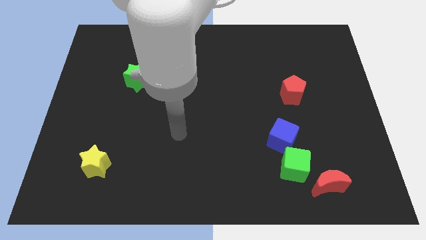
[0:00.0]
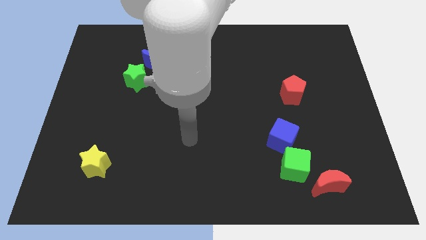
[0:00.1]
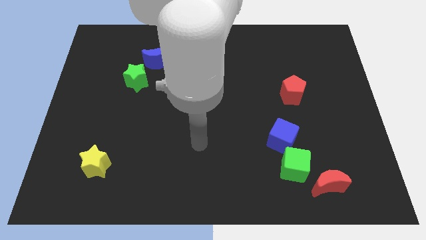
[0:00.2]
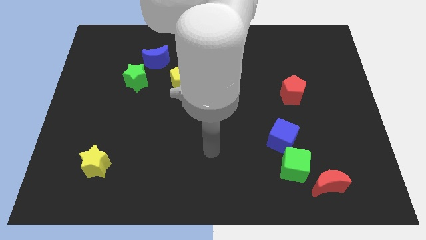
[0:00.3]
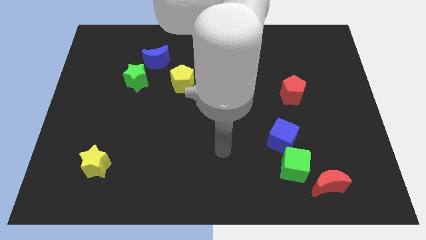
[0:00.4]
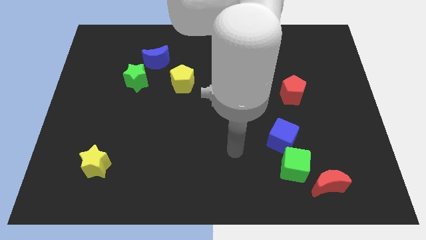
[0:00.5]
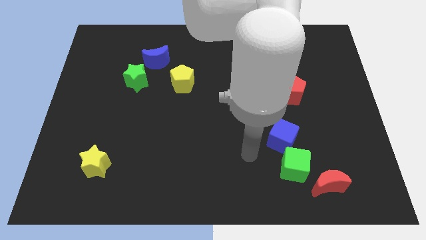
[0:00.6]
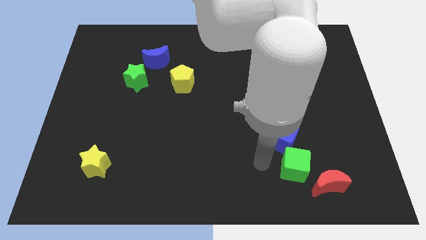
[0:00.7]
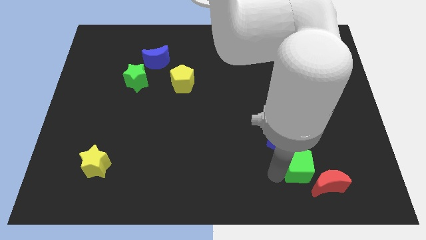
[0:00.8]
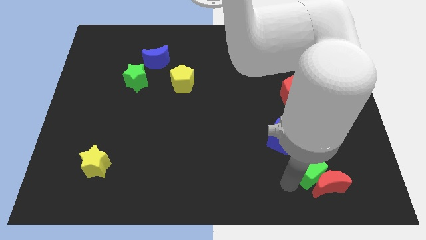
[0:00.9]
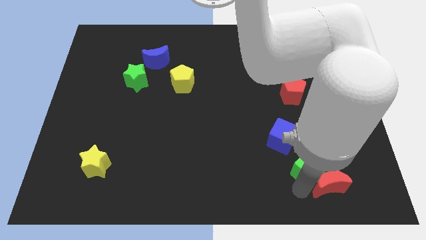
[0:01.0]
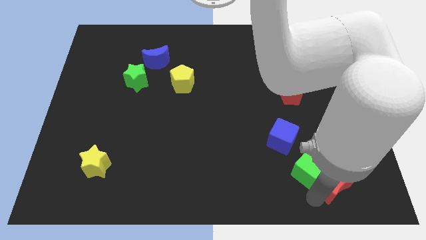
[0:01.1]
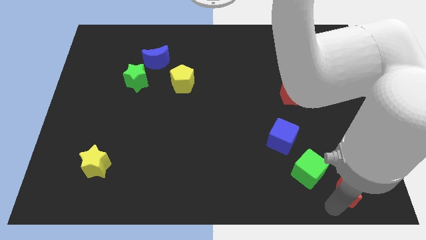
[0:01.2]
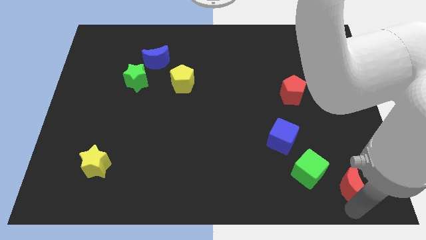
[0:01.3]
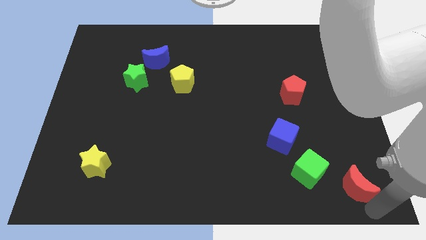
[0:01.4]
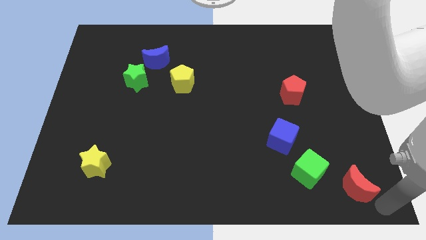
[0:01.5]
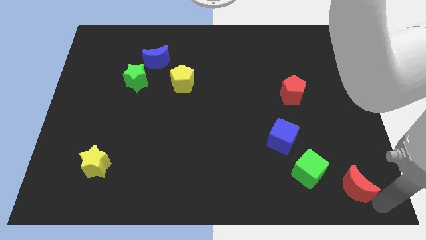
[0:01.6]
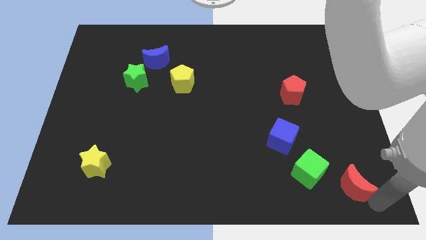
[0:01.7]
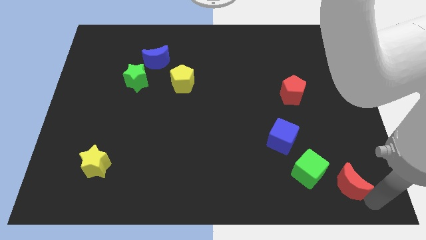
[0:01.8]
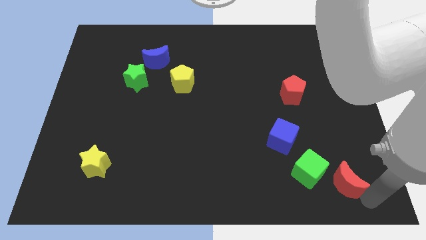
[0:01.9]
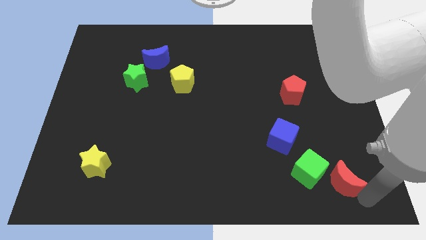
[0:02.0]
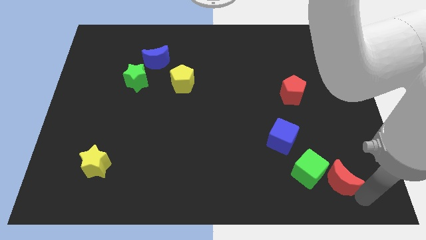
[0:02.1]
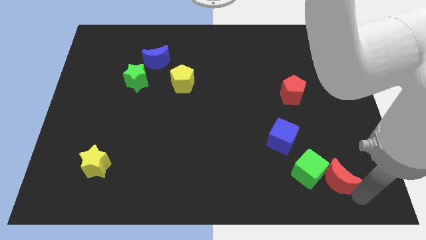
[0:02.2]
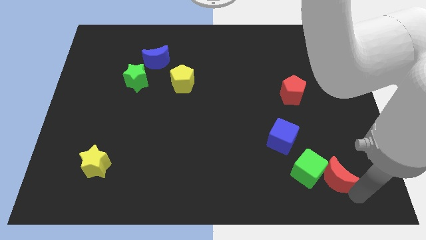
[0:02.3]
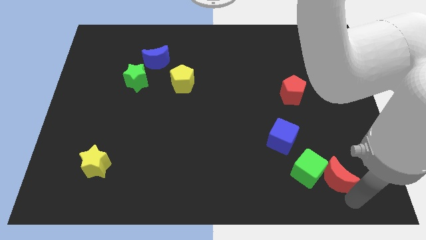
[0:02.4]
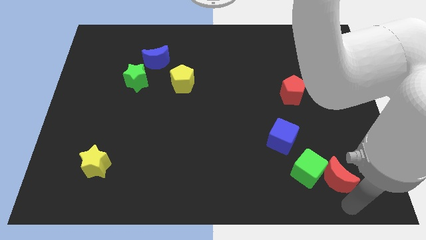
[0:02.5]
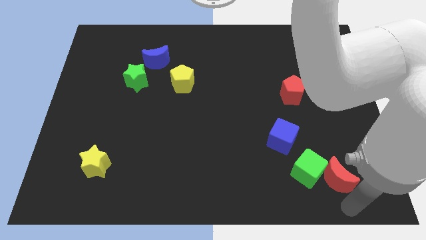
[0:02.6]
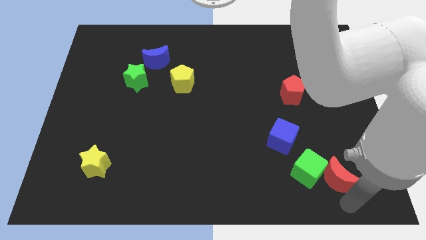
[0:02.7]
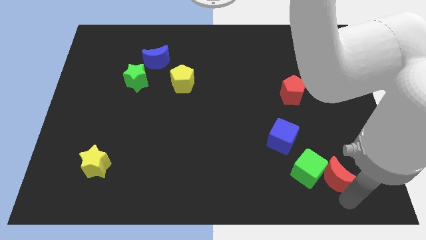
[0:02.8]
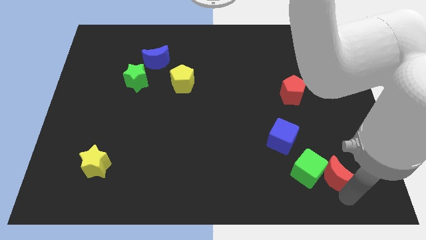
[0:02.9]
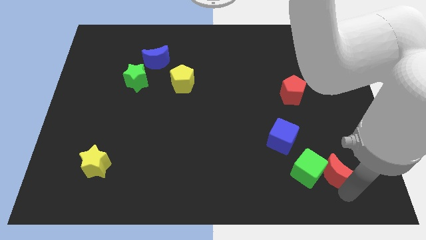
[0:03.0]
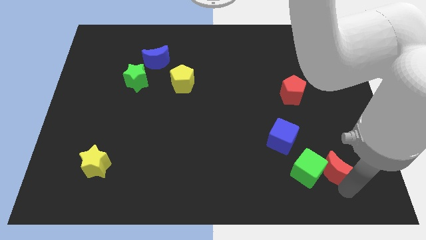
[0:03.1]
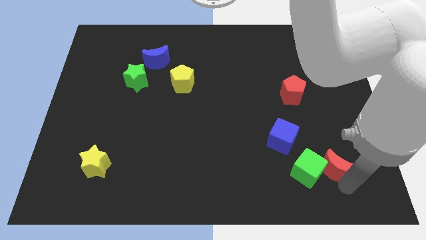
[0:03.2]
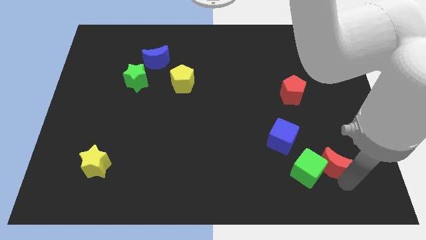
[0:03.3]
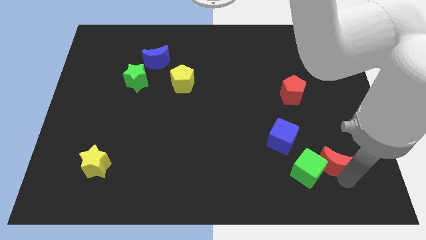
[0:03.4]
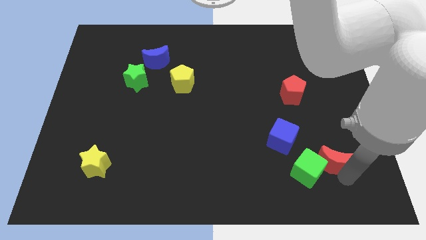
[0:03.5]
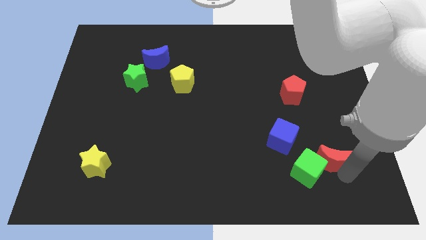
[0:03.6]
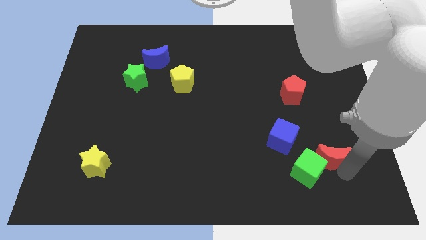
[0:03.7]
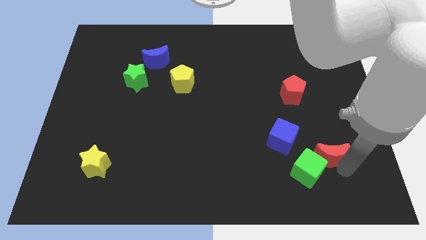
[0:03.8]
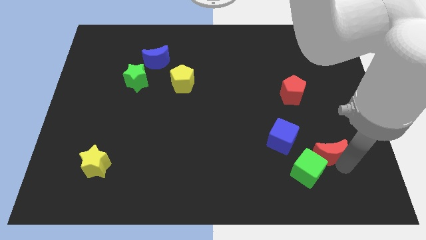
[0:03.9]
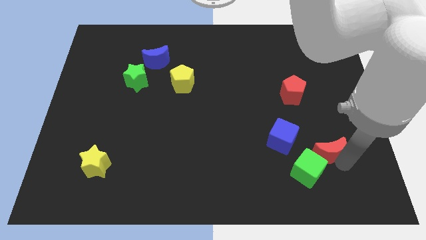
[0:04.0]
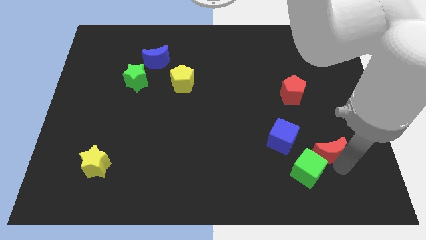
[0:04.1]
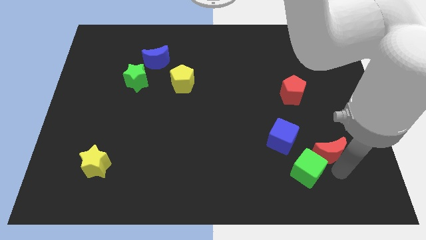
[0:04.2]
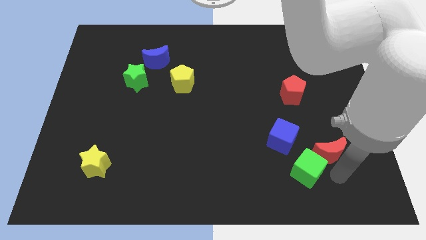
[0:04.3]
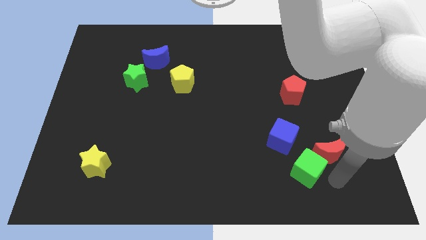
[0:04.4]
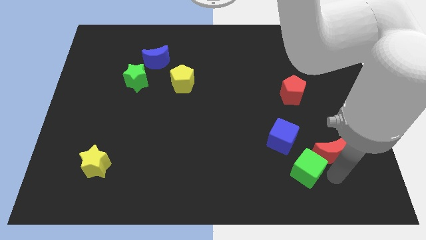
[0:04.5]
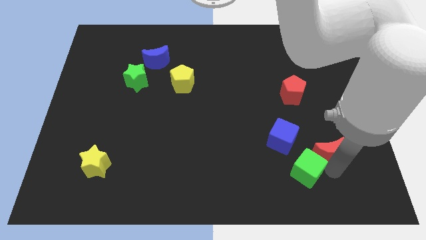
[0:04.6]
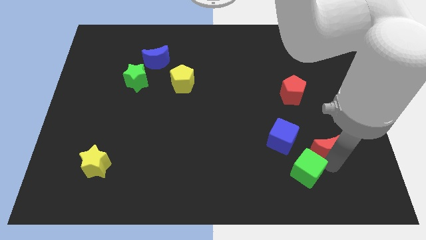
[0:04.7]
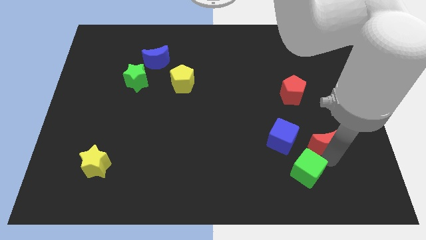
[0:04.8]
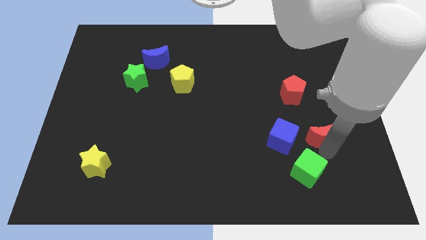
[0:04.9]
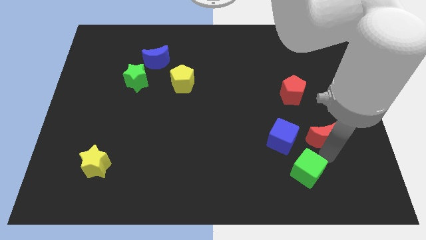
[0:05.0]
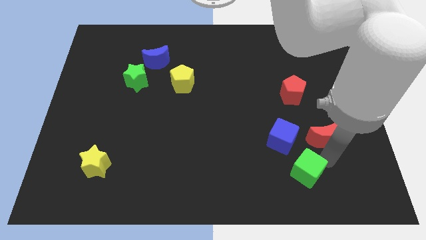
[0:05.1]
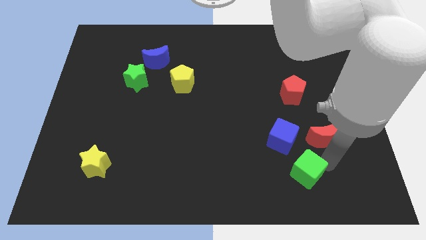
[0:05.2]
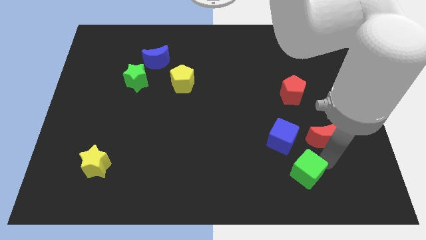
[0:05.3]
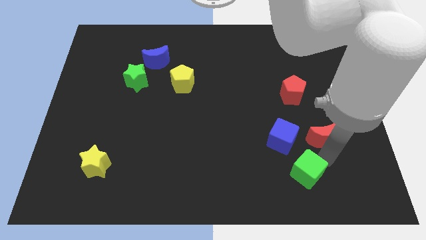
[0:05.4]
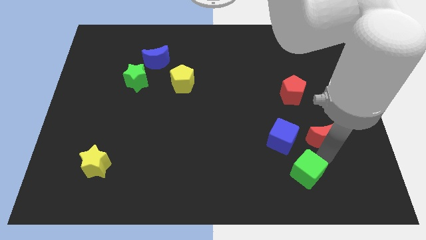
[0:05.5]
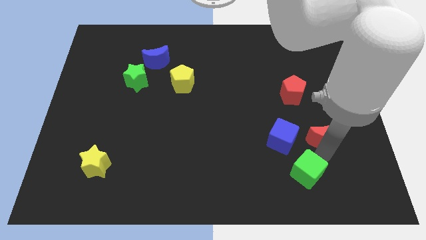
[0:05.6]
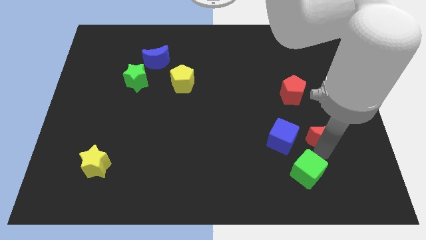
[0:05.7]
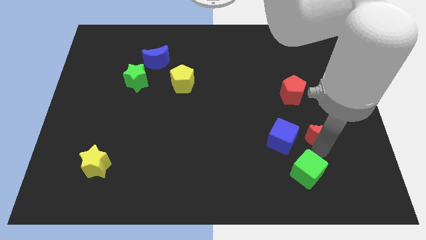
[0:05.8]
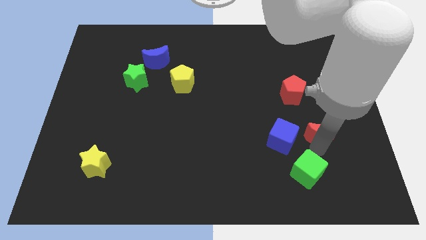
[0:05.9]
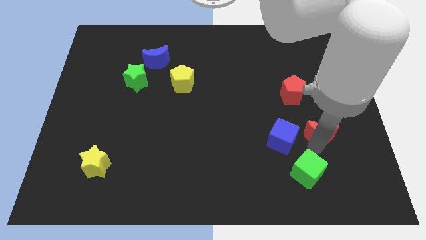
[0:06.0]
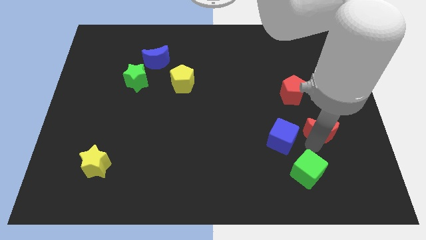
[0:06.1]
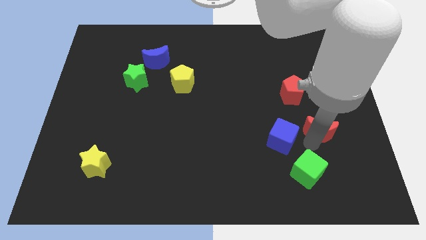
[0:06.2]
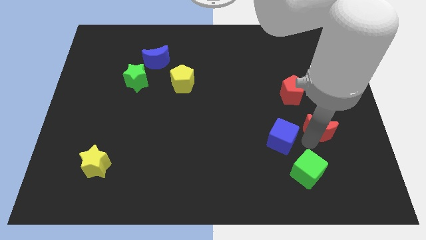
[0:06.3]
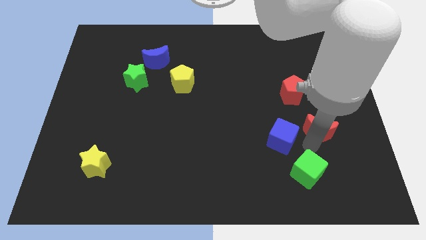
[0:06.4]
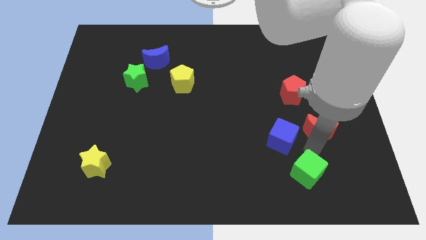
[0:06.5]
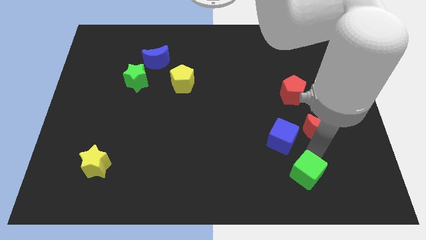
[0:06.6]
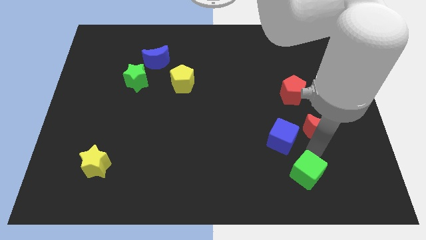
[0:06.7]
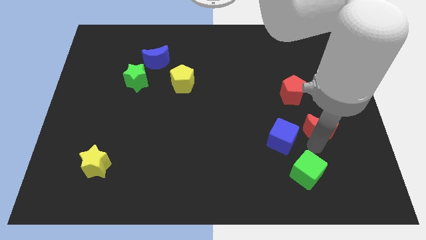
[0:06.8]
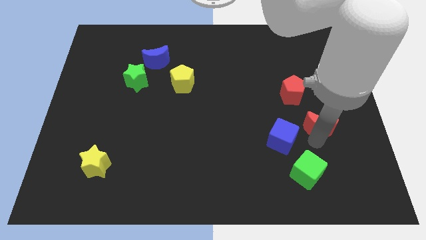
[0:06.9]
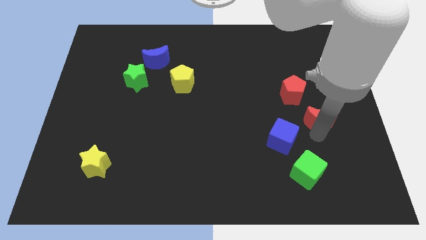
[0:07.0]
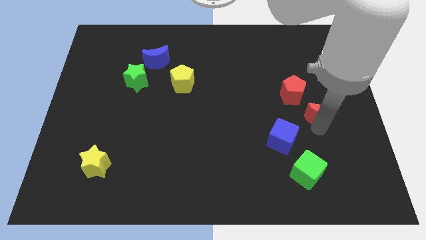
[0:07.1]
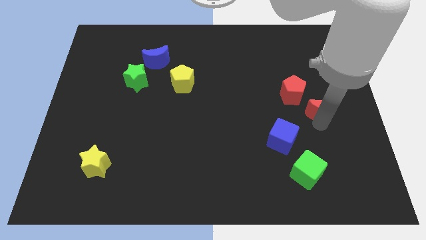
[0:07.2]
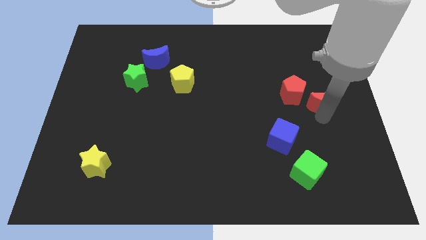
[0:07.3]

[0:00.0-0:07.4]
move the red moon up

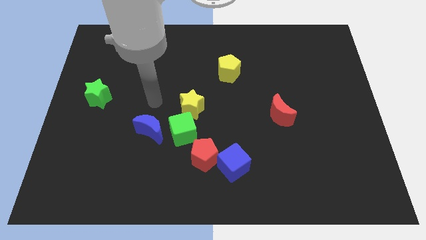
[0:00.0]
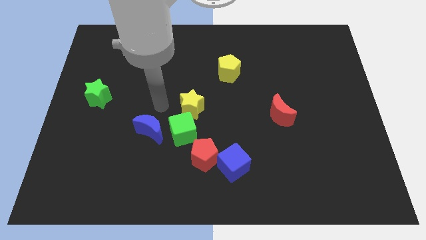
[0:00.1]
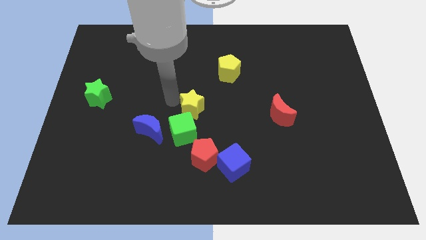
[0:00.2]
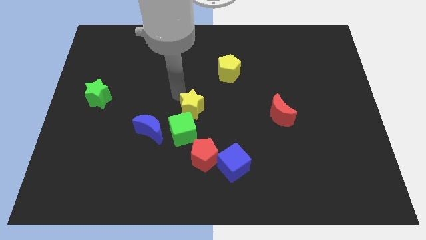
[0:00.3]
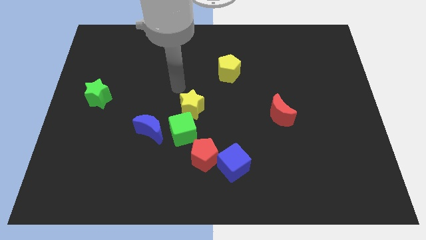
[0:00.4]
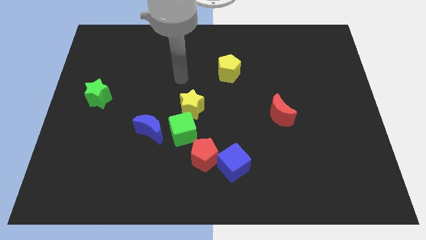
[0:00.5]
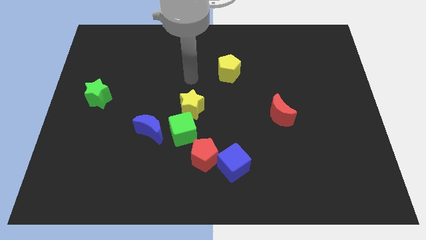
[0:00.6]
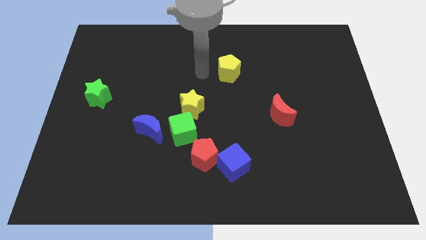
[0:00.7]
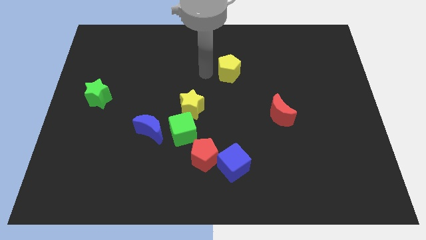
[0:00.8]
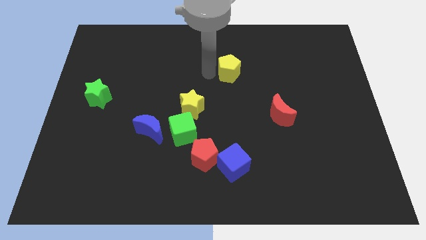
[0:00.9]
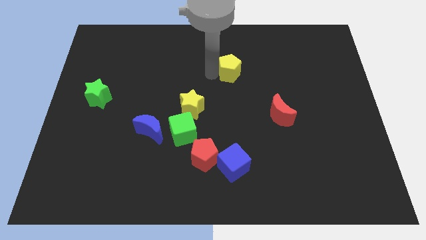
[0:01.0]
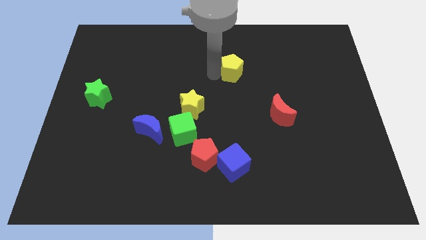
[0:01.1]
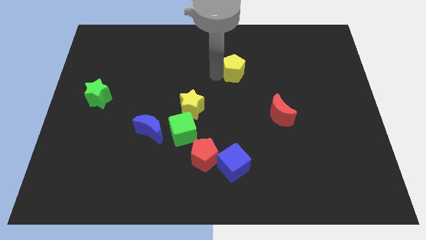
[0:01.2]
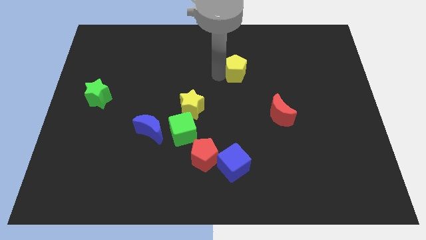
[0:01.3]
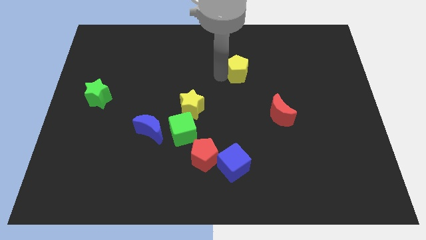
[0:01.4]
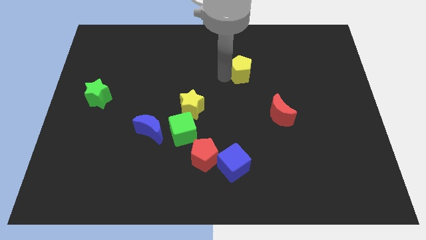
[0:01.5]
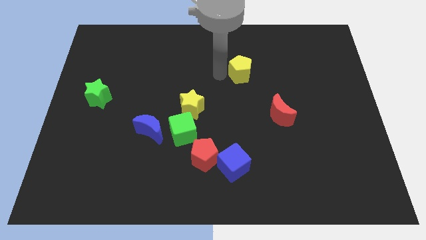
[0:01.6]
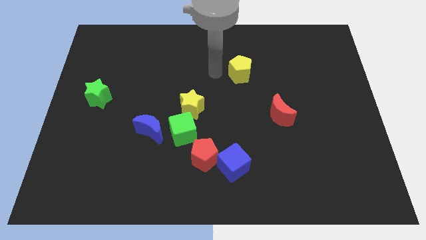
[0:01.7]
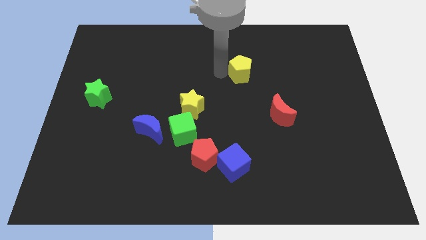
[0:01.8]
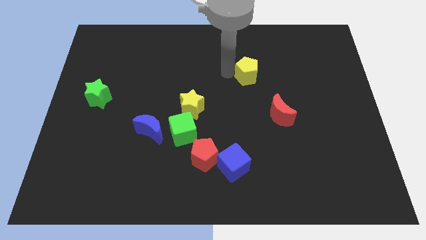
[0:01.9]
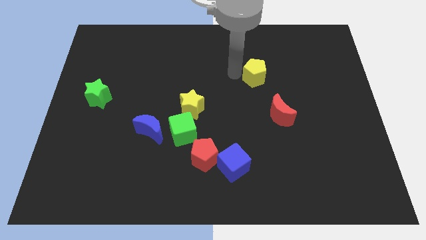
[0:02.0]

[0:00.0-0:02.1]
move the yellow pentagon a bit to the right
